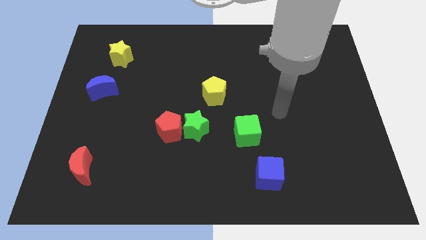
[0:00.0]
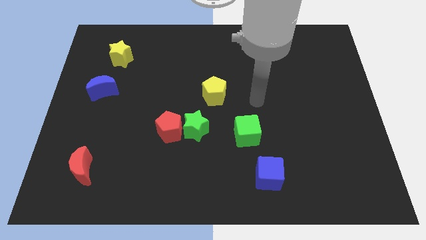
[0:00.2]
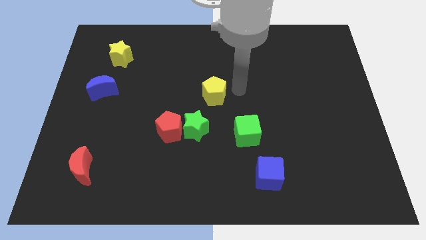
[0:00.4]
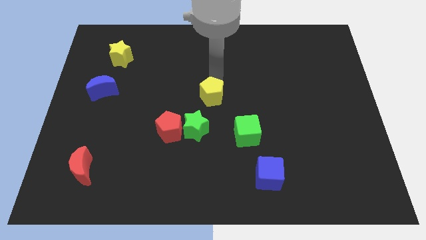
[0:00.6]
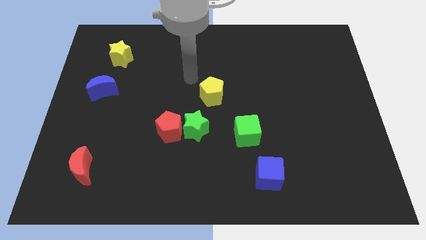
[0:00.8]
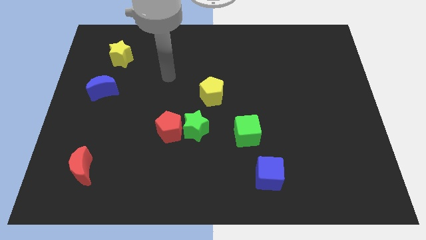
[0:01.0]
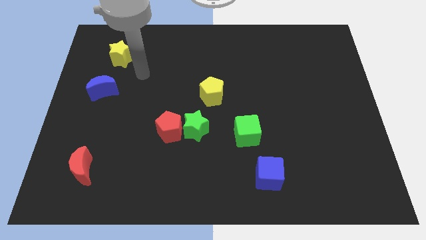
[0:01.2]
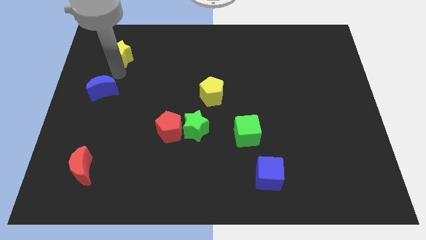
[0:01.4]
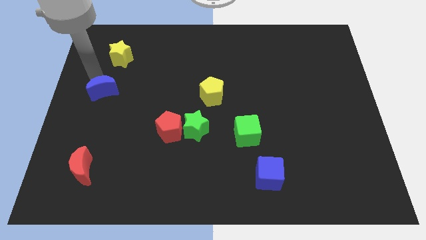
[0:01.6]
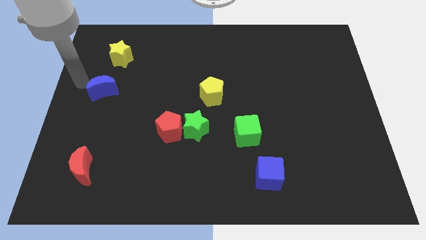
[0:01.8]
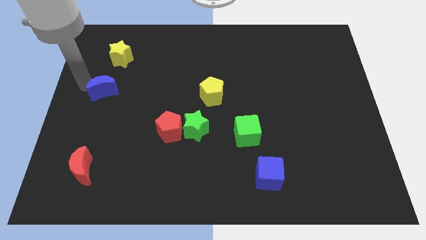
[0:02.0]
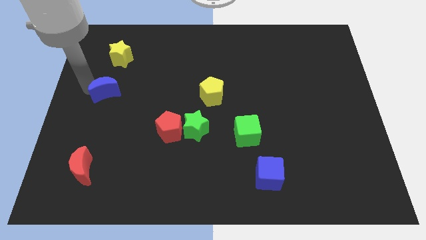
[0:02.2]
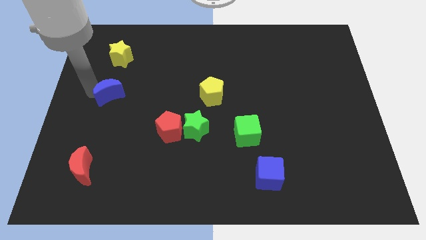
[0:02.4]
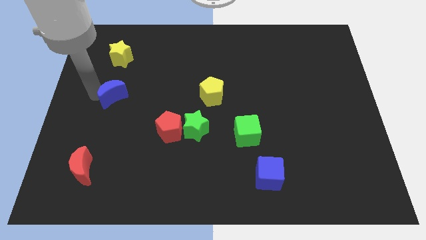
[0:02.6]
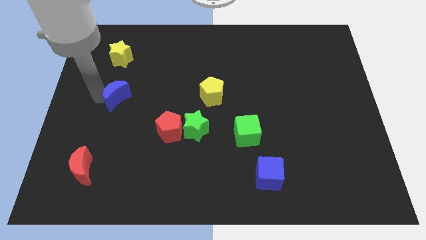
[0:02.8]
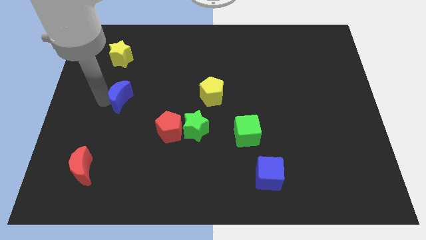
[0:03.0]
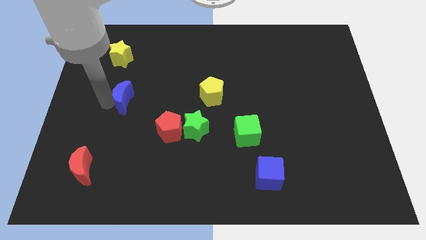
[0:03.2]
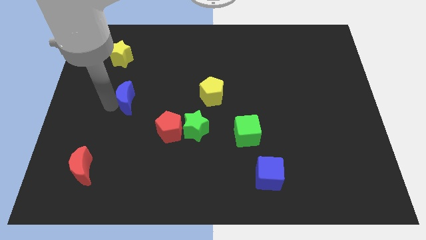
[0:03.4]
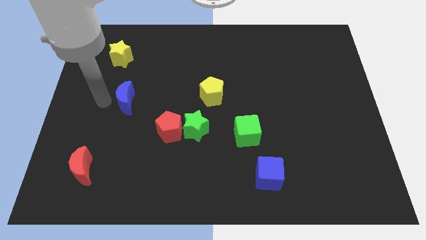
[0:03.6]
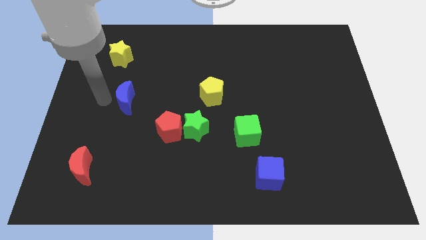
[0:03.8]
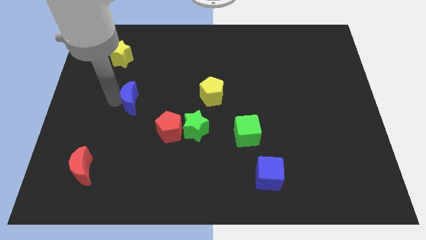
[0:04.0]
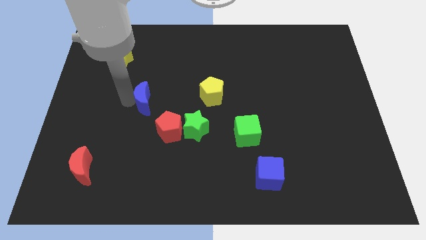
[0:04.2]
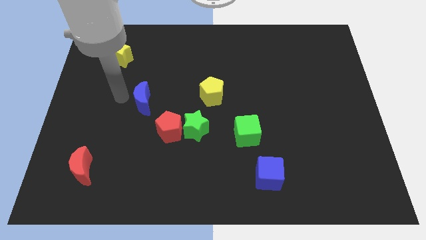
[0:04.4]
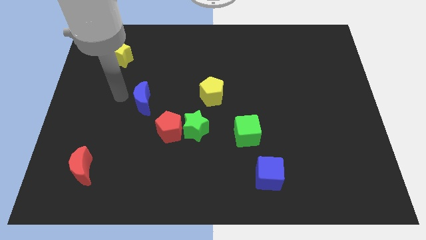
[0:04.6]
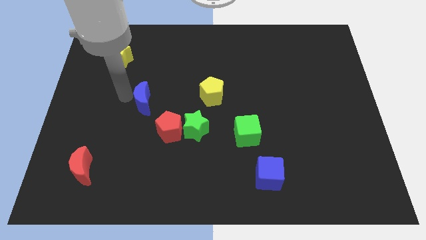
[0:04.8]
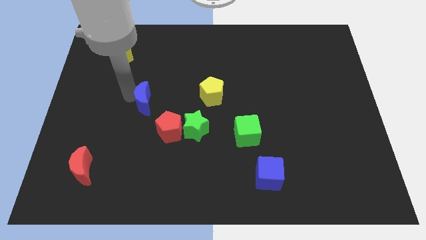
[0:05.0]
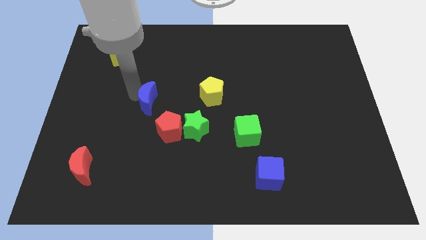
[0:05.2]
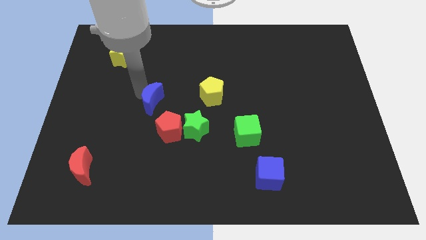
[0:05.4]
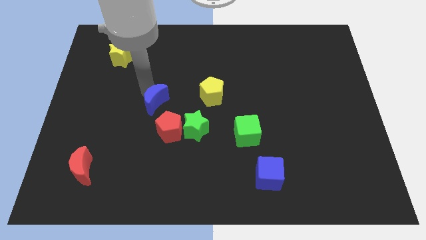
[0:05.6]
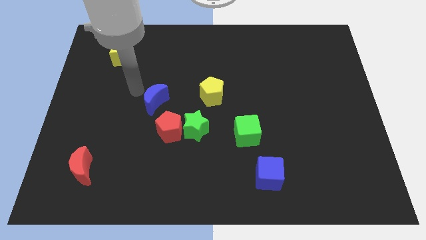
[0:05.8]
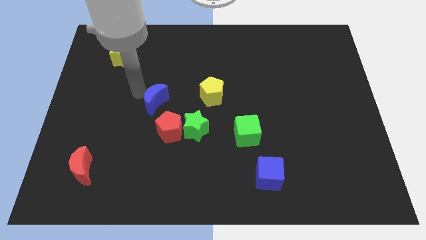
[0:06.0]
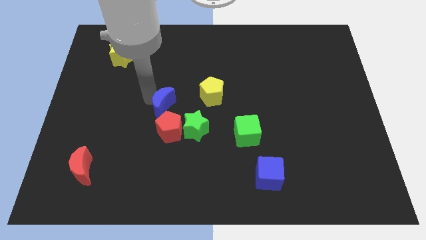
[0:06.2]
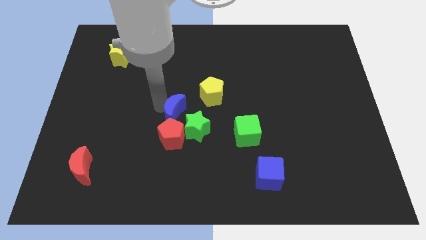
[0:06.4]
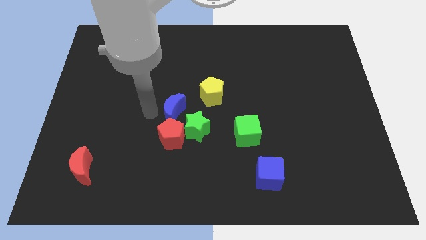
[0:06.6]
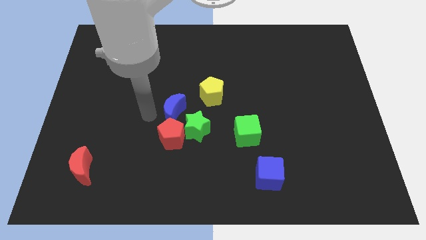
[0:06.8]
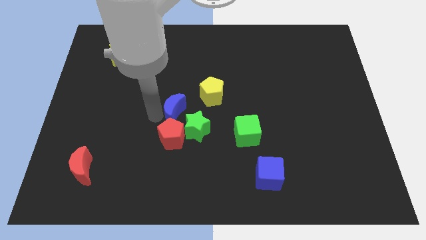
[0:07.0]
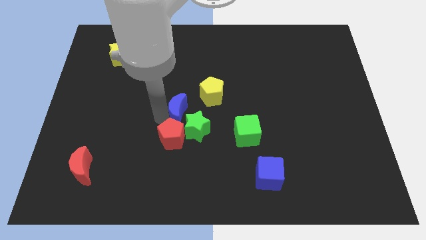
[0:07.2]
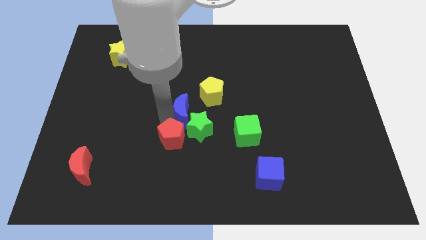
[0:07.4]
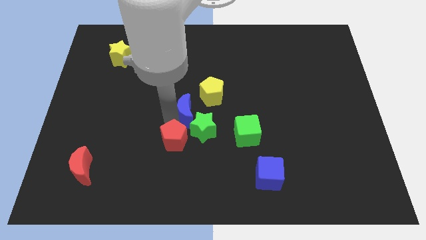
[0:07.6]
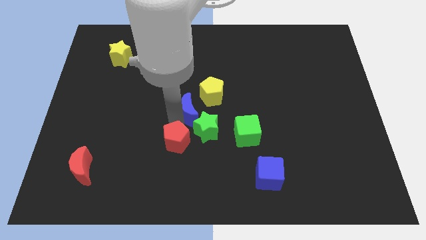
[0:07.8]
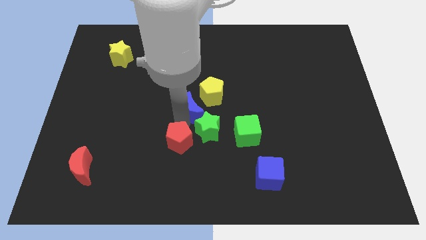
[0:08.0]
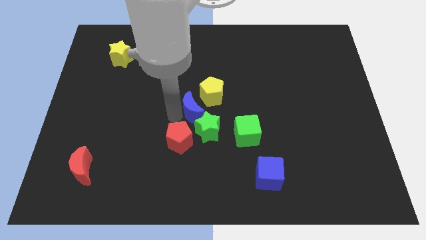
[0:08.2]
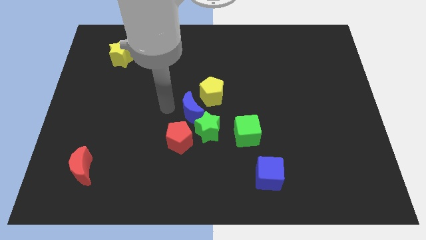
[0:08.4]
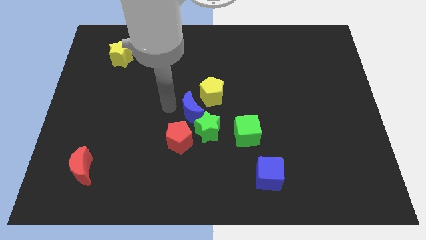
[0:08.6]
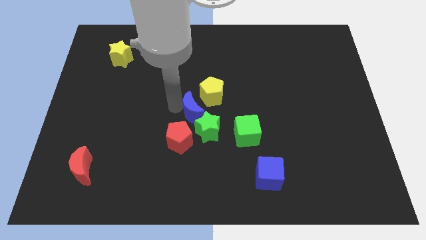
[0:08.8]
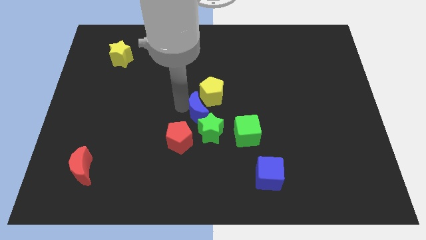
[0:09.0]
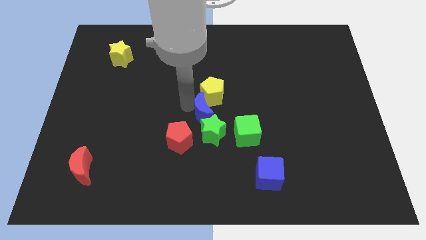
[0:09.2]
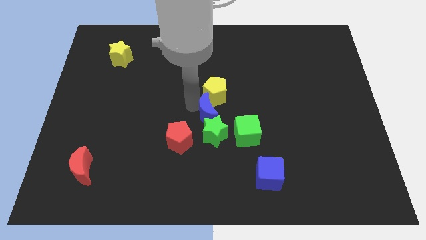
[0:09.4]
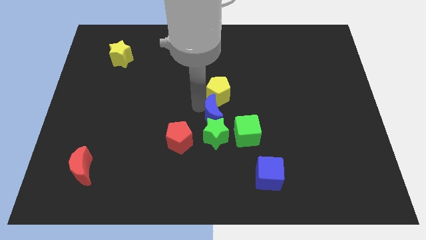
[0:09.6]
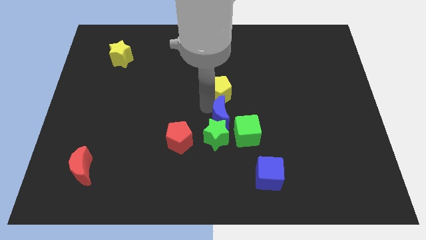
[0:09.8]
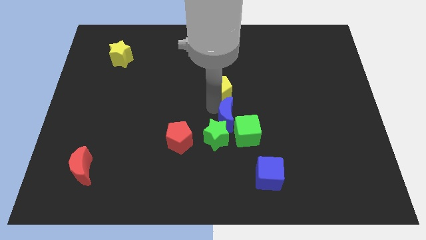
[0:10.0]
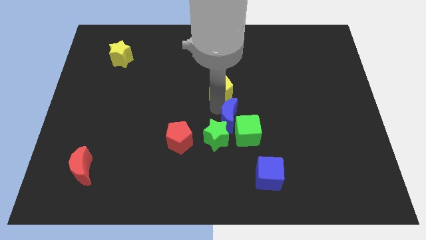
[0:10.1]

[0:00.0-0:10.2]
put the blue moon close to the green cube

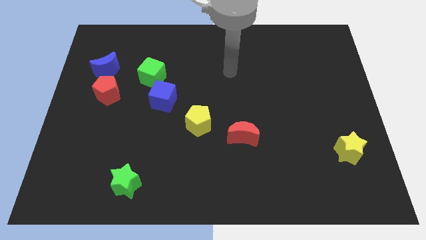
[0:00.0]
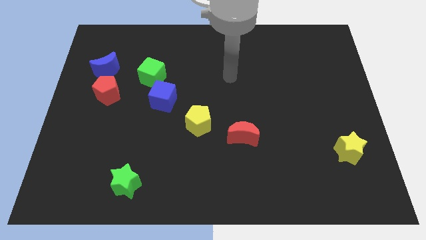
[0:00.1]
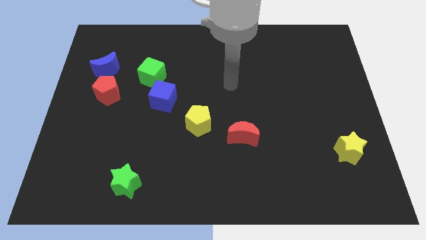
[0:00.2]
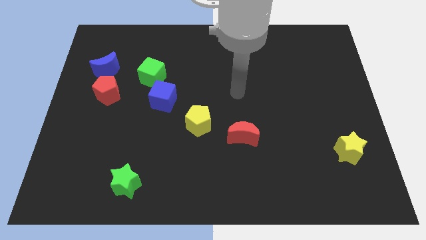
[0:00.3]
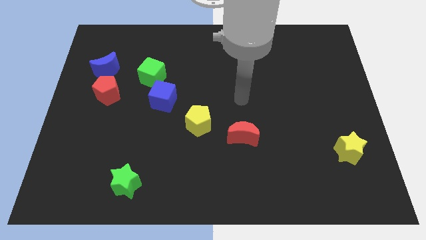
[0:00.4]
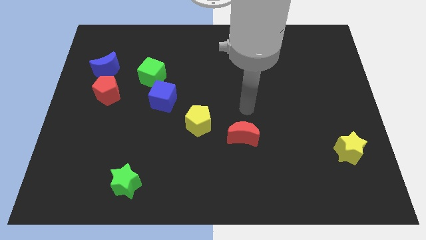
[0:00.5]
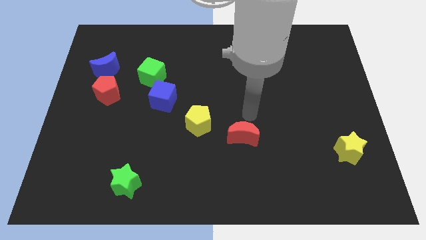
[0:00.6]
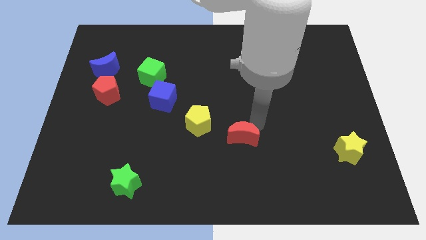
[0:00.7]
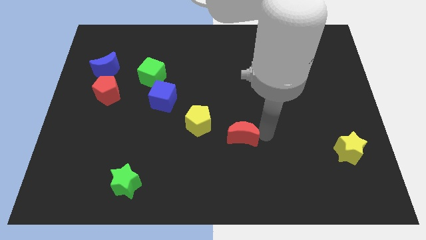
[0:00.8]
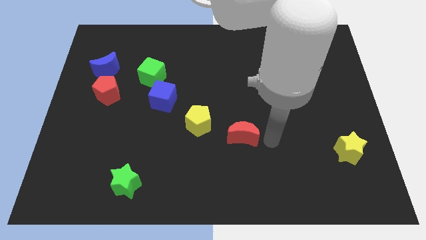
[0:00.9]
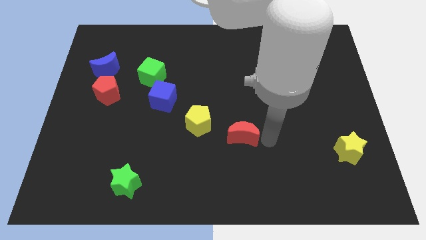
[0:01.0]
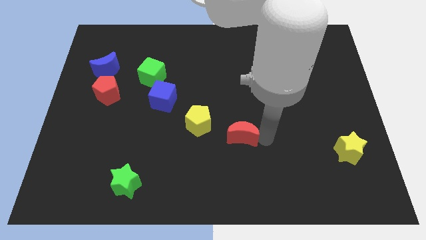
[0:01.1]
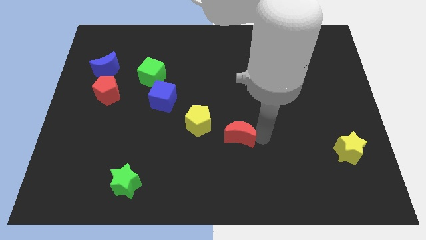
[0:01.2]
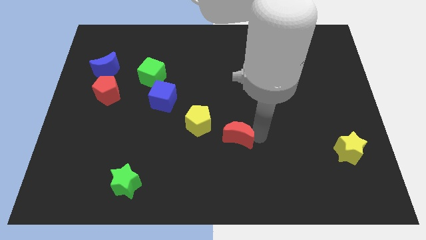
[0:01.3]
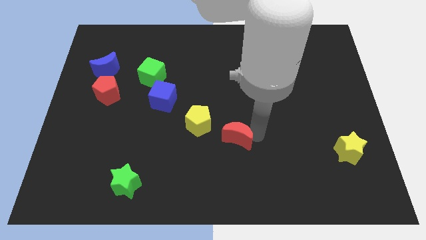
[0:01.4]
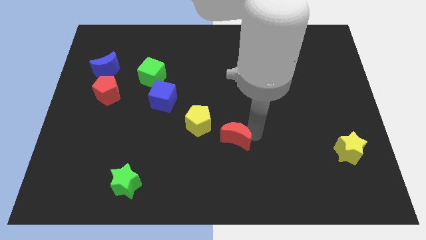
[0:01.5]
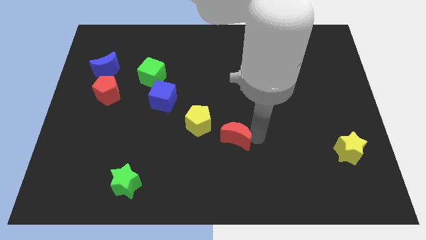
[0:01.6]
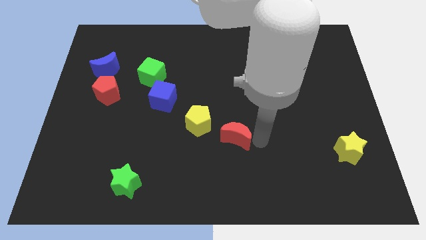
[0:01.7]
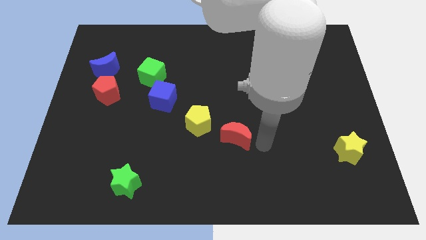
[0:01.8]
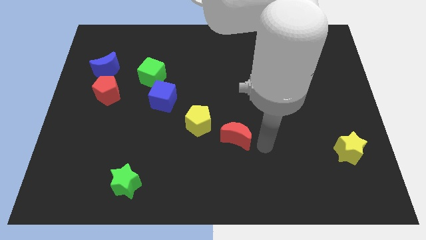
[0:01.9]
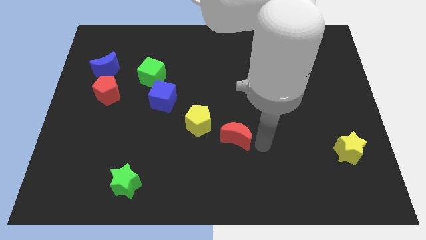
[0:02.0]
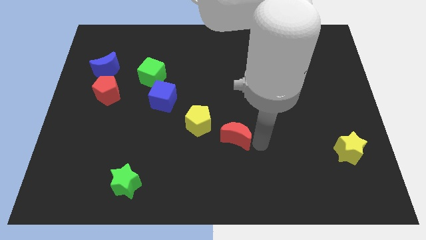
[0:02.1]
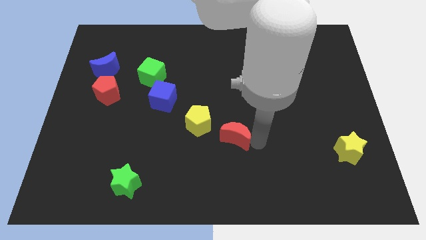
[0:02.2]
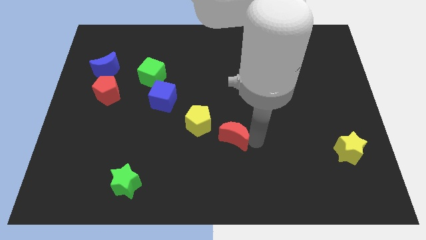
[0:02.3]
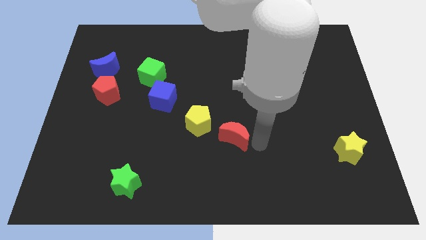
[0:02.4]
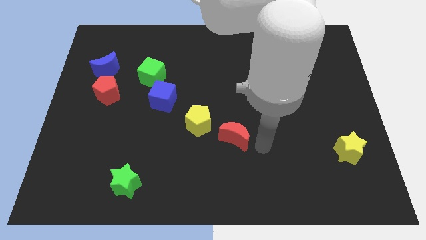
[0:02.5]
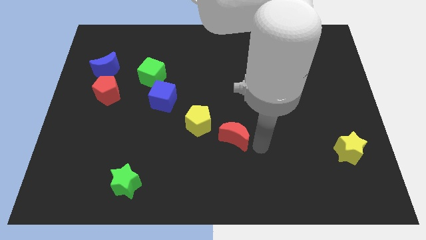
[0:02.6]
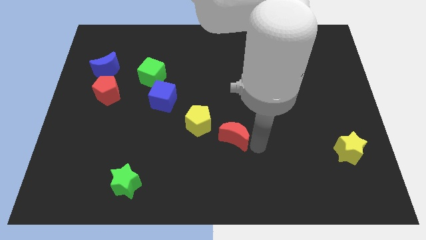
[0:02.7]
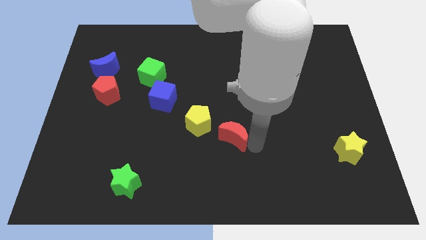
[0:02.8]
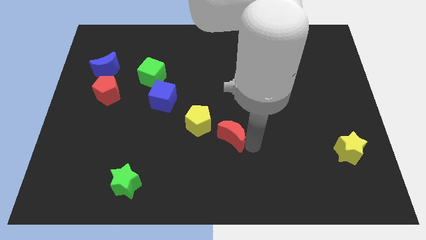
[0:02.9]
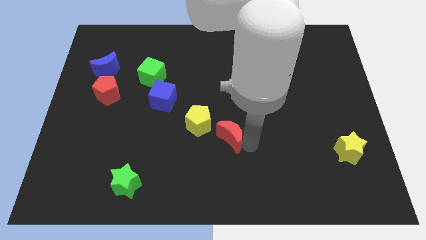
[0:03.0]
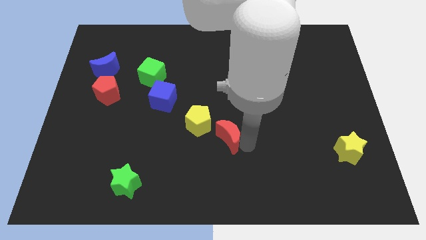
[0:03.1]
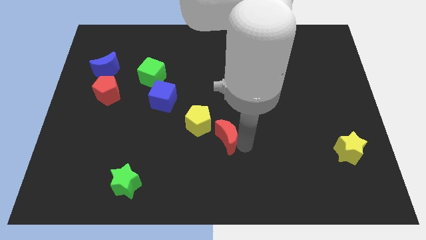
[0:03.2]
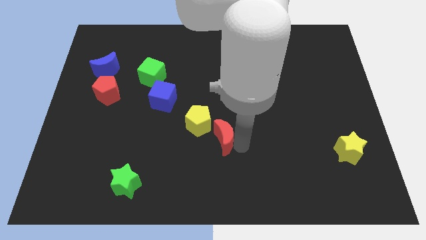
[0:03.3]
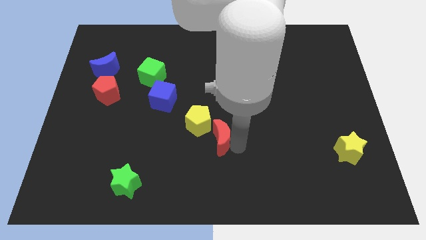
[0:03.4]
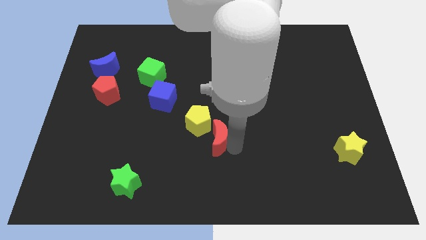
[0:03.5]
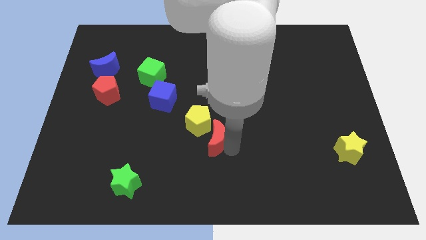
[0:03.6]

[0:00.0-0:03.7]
move the red moon next to the yellow pentagon
